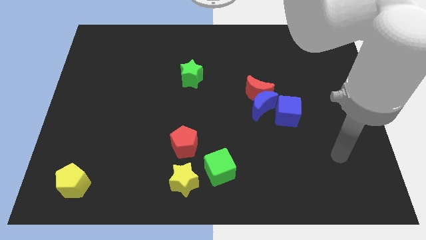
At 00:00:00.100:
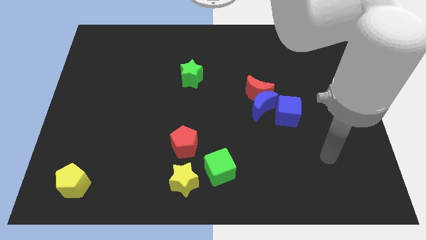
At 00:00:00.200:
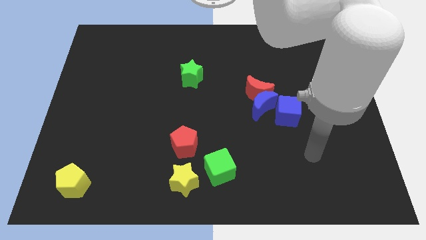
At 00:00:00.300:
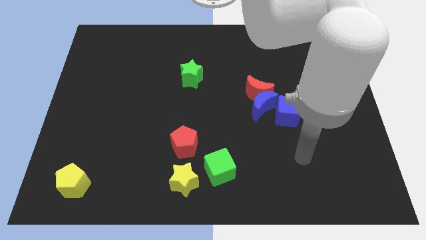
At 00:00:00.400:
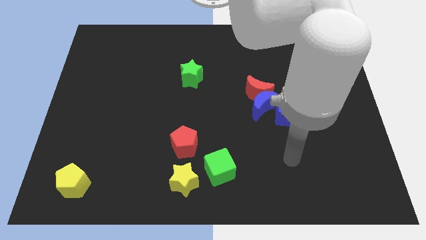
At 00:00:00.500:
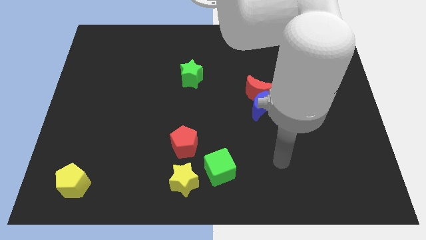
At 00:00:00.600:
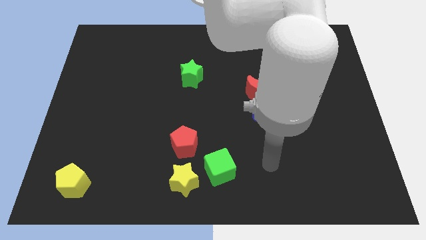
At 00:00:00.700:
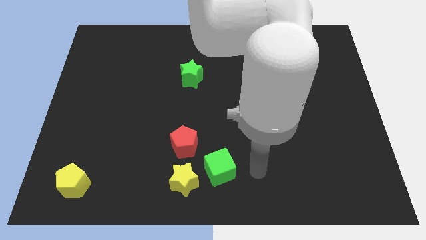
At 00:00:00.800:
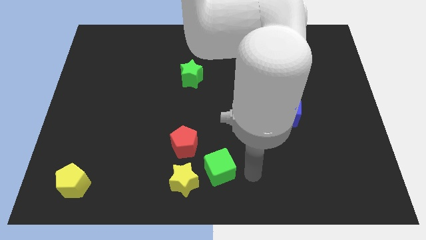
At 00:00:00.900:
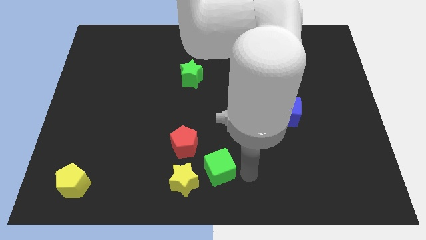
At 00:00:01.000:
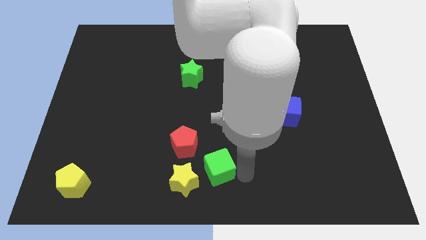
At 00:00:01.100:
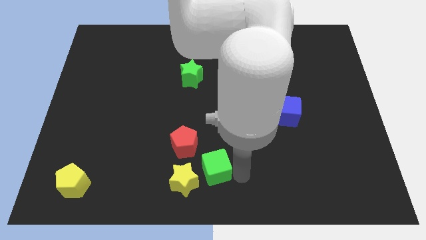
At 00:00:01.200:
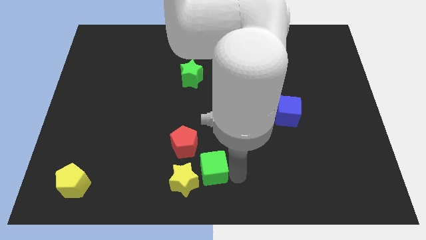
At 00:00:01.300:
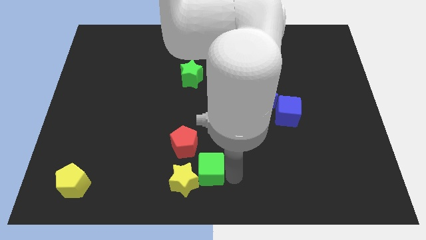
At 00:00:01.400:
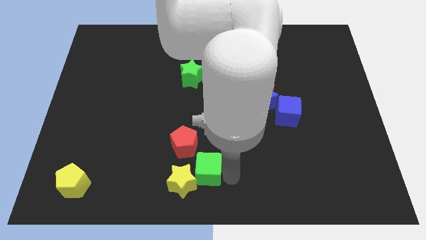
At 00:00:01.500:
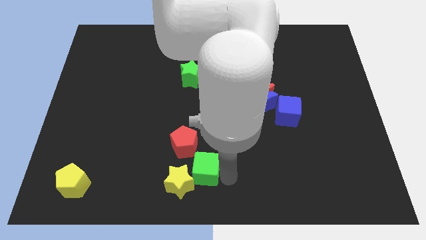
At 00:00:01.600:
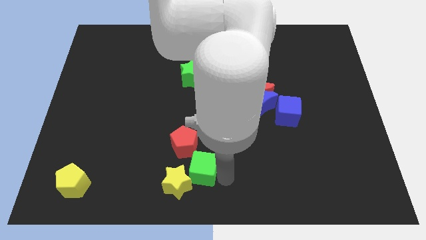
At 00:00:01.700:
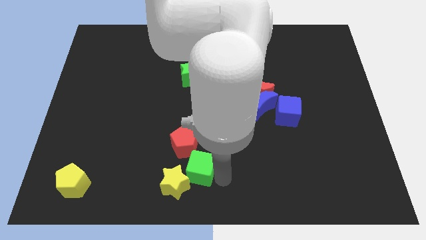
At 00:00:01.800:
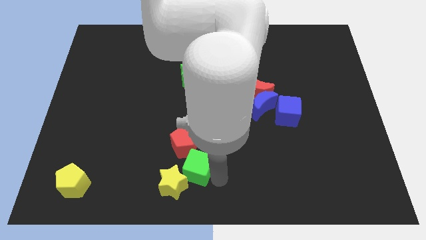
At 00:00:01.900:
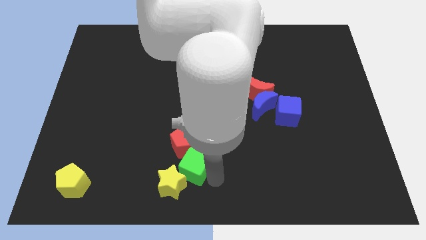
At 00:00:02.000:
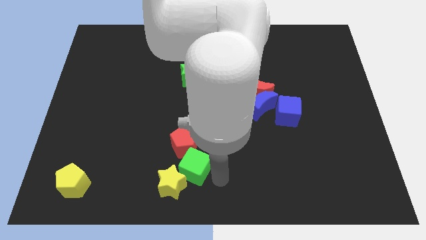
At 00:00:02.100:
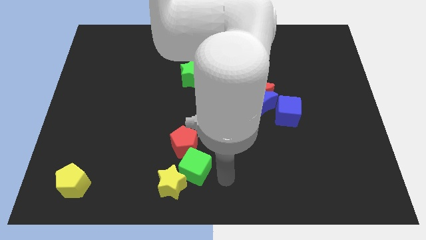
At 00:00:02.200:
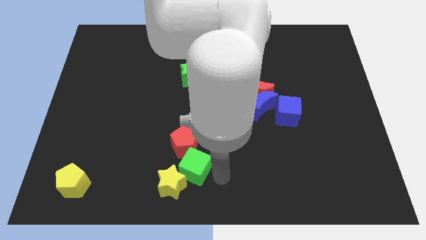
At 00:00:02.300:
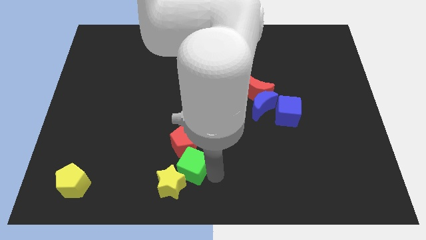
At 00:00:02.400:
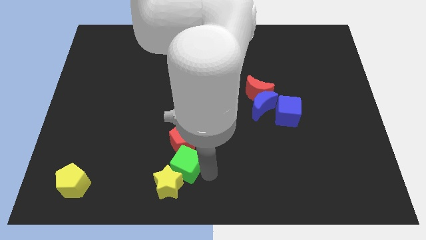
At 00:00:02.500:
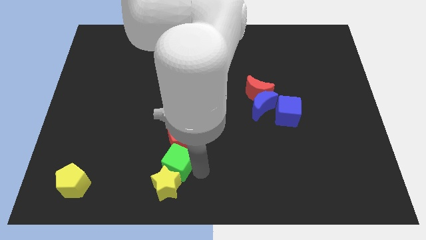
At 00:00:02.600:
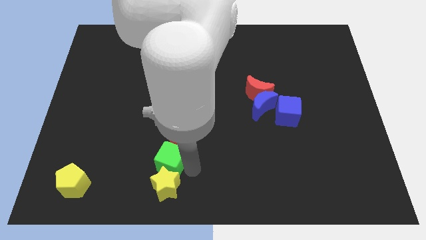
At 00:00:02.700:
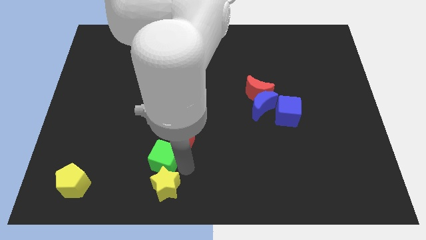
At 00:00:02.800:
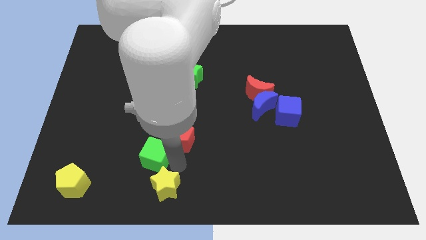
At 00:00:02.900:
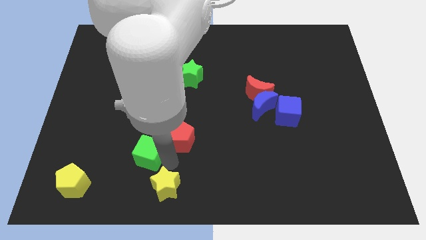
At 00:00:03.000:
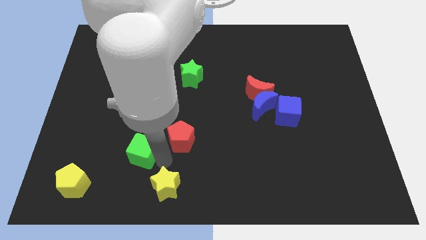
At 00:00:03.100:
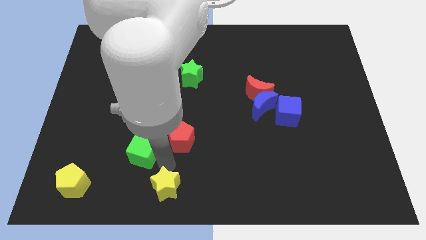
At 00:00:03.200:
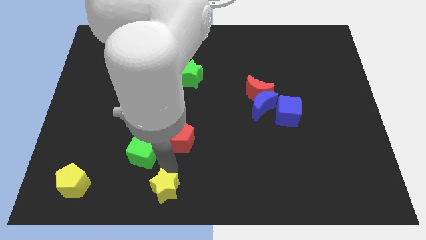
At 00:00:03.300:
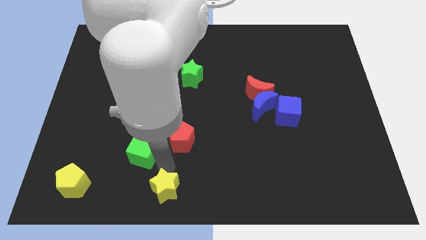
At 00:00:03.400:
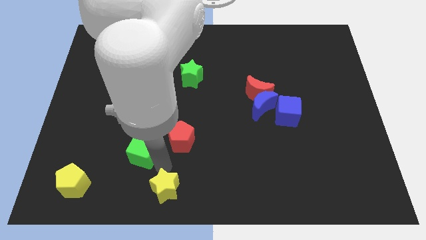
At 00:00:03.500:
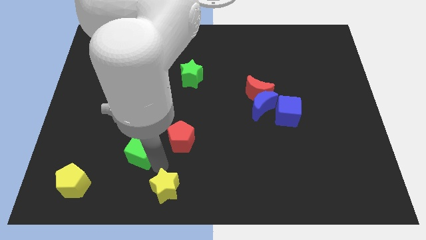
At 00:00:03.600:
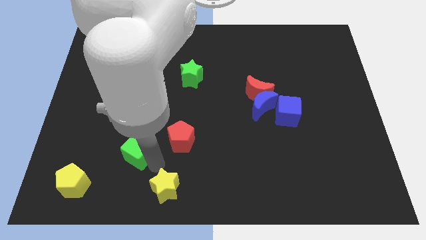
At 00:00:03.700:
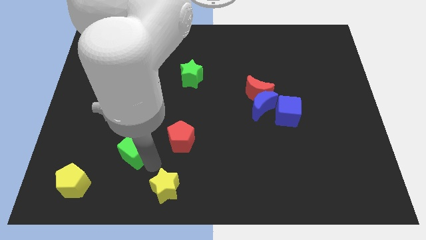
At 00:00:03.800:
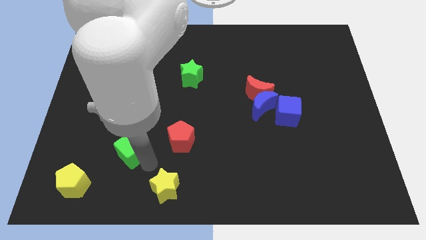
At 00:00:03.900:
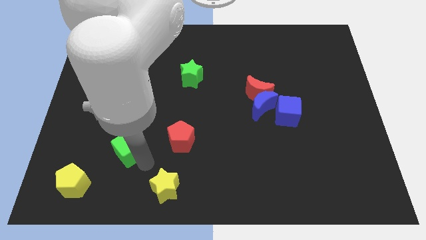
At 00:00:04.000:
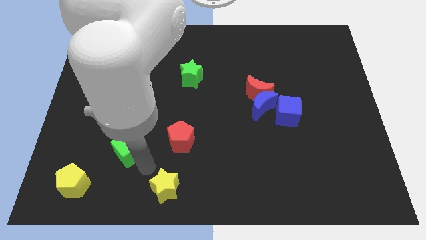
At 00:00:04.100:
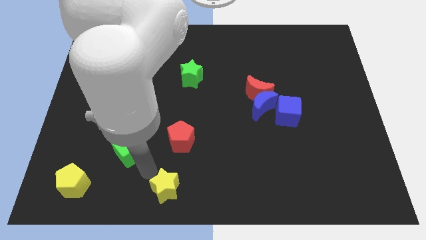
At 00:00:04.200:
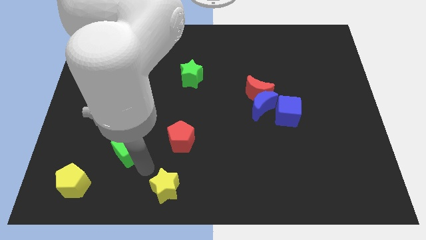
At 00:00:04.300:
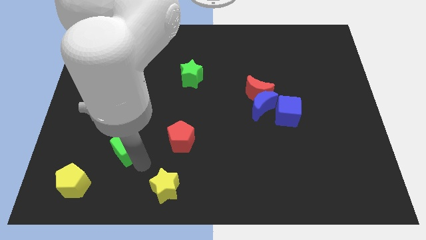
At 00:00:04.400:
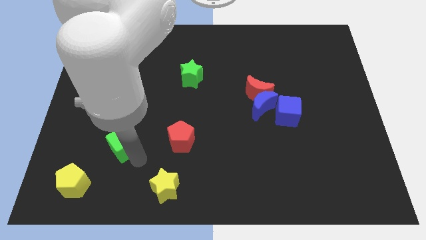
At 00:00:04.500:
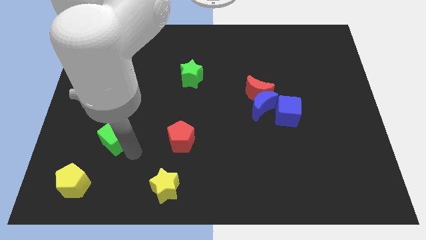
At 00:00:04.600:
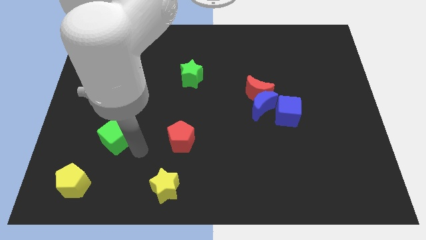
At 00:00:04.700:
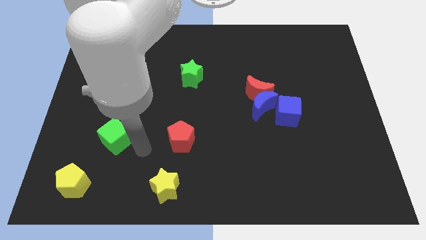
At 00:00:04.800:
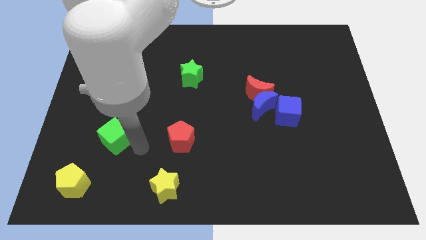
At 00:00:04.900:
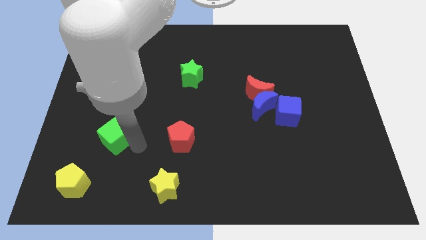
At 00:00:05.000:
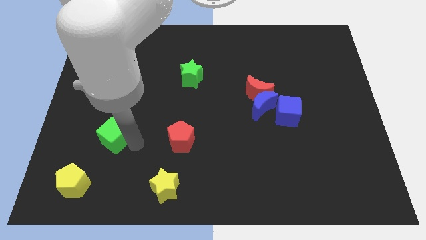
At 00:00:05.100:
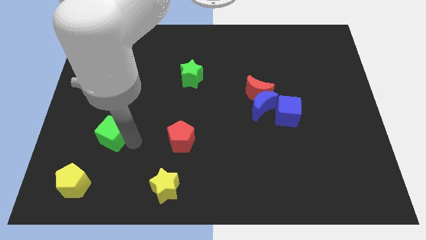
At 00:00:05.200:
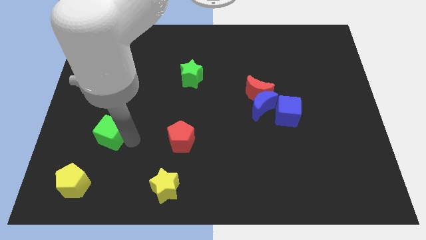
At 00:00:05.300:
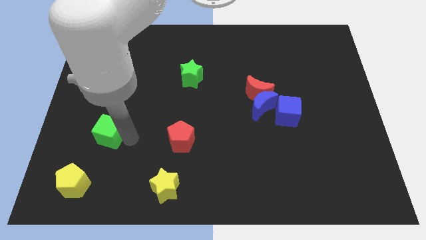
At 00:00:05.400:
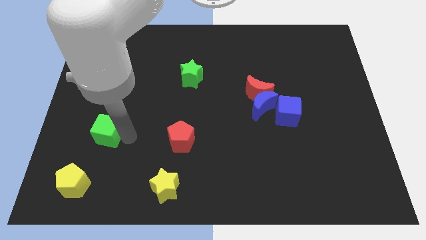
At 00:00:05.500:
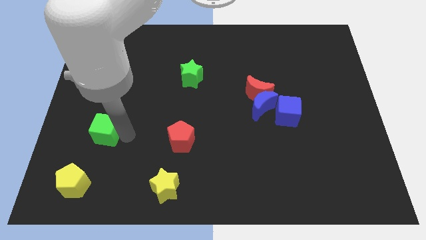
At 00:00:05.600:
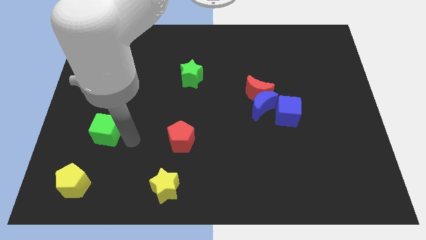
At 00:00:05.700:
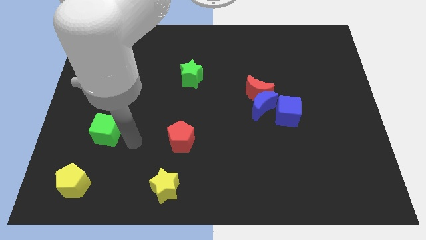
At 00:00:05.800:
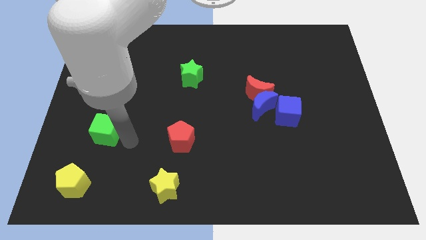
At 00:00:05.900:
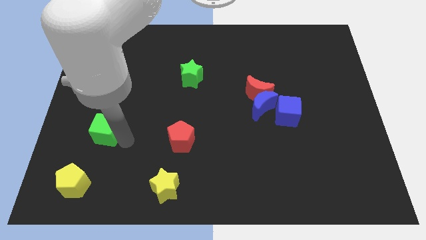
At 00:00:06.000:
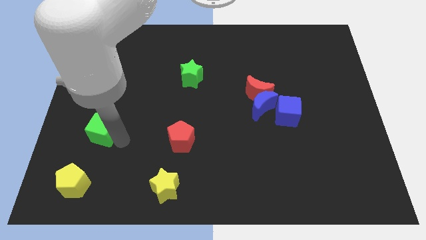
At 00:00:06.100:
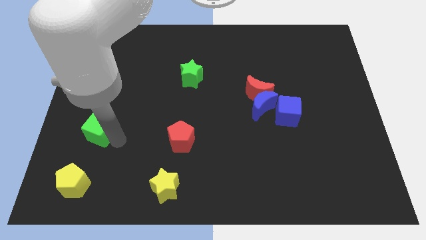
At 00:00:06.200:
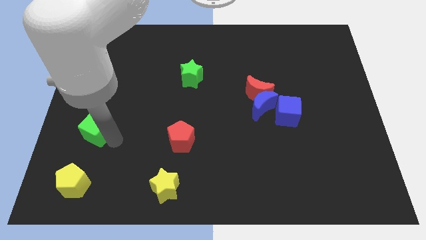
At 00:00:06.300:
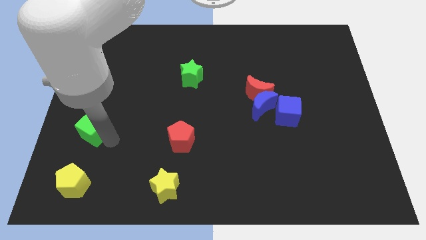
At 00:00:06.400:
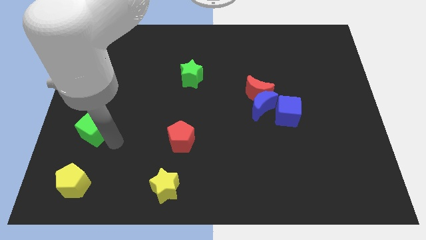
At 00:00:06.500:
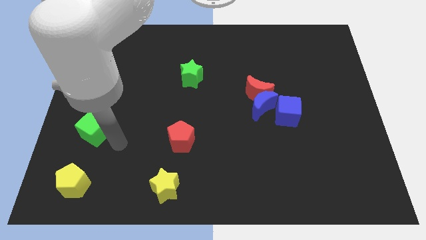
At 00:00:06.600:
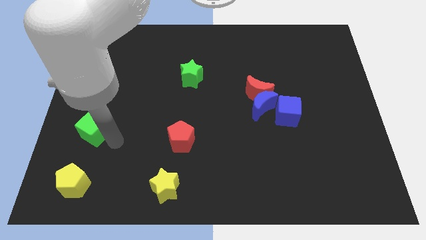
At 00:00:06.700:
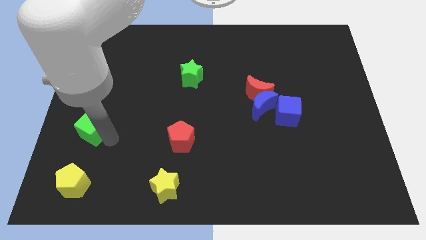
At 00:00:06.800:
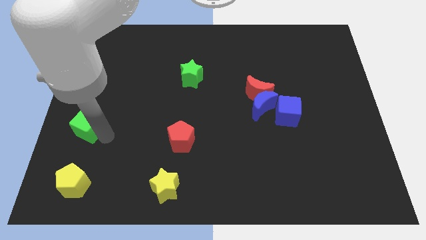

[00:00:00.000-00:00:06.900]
move the green cube to the left side of the board

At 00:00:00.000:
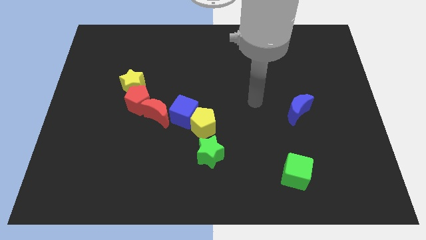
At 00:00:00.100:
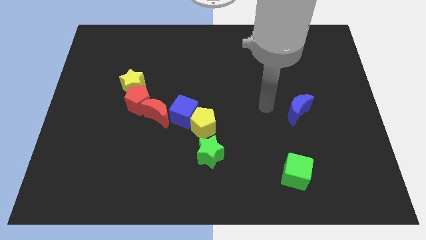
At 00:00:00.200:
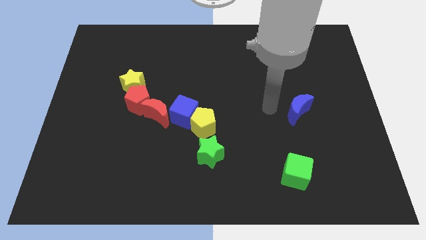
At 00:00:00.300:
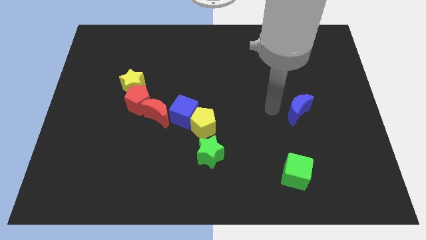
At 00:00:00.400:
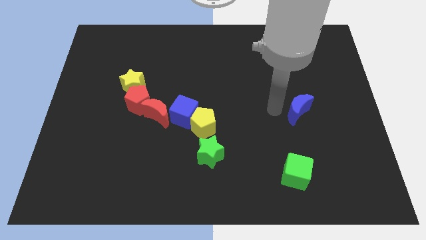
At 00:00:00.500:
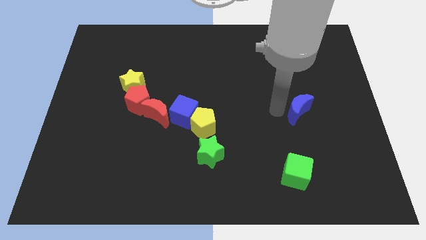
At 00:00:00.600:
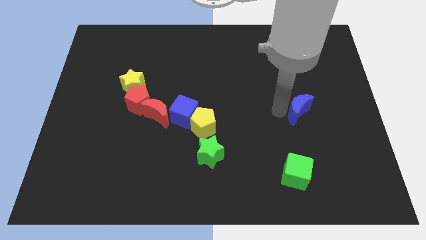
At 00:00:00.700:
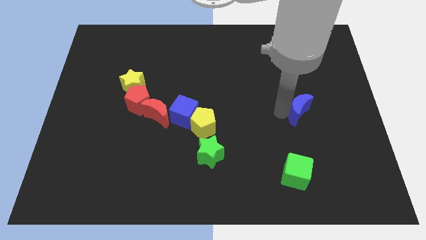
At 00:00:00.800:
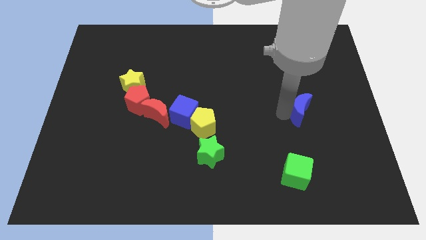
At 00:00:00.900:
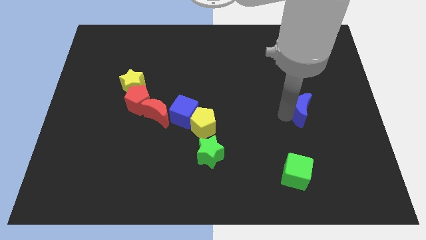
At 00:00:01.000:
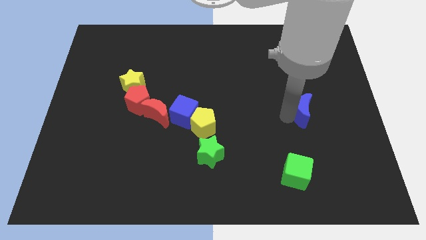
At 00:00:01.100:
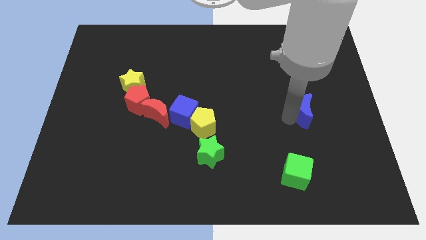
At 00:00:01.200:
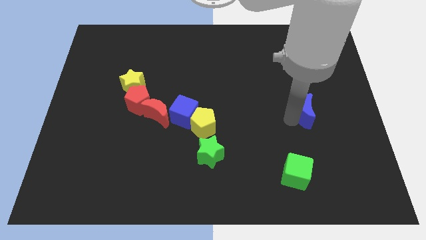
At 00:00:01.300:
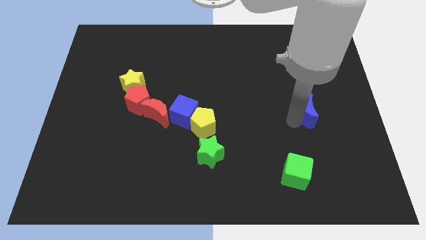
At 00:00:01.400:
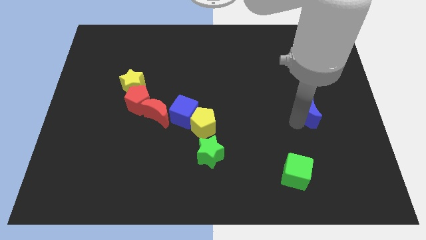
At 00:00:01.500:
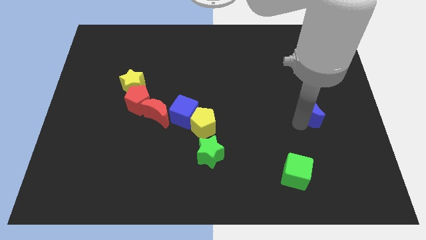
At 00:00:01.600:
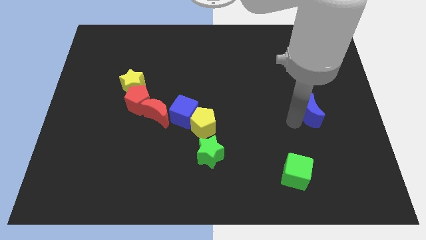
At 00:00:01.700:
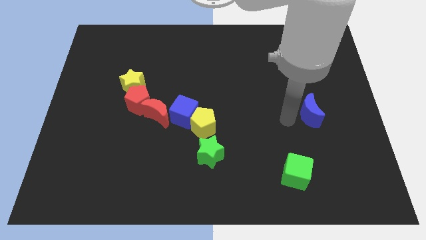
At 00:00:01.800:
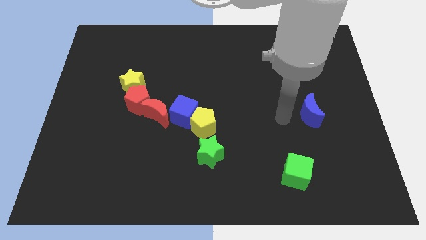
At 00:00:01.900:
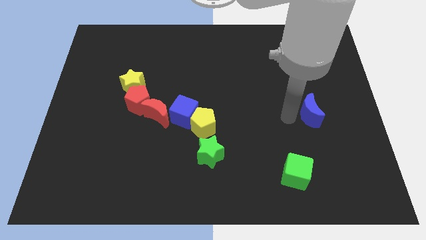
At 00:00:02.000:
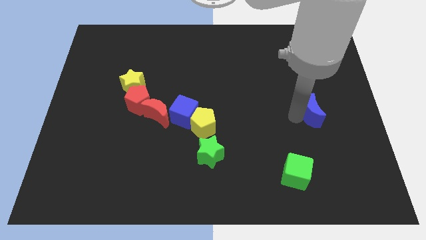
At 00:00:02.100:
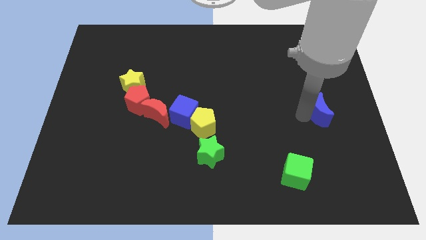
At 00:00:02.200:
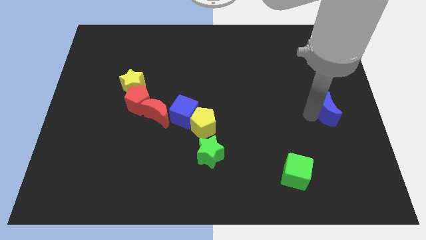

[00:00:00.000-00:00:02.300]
slide the blue moon to the right side of the board
